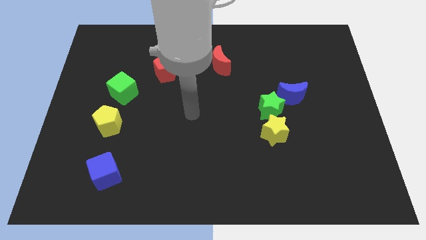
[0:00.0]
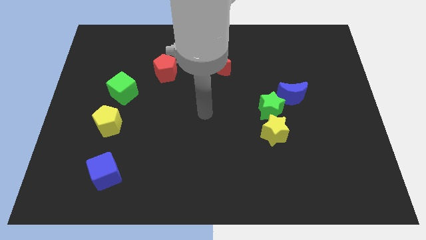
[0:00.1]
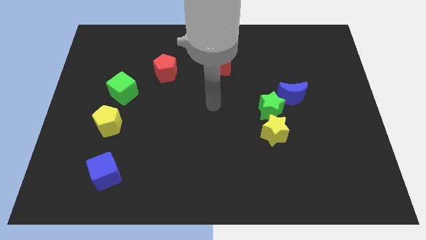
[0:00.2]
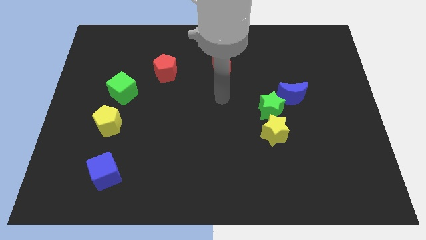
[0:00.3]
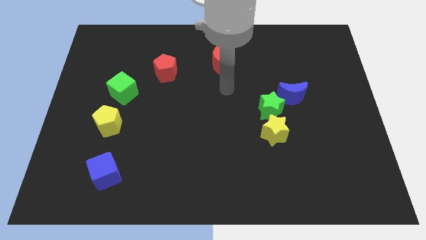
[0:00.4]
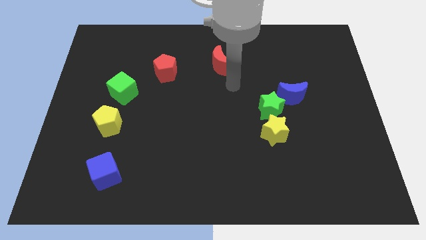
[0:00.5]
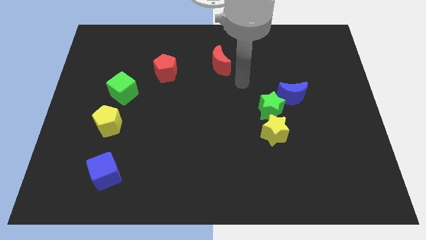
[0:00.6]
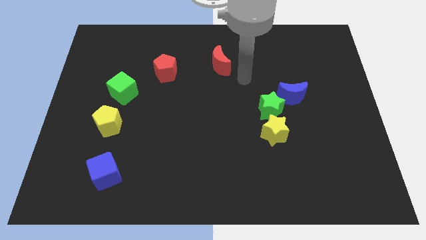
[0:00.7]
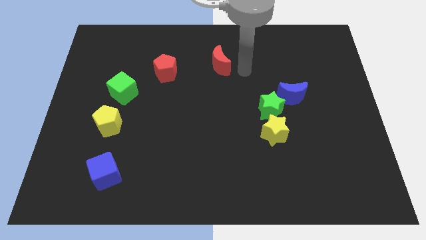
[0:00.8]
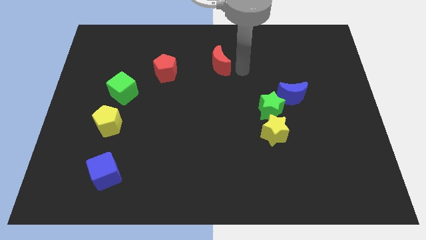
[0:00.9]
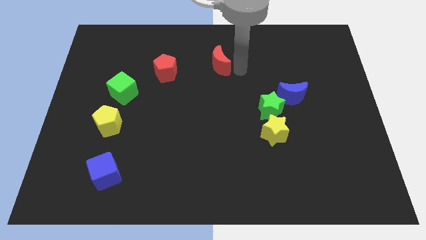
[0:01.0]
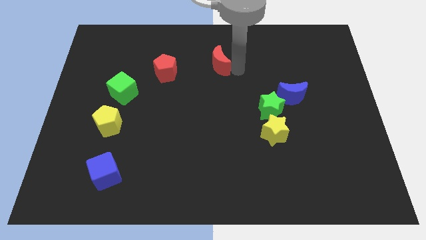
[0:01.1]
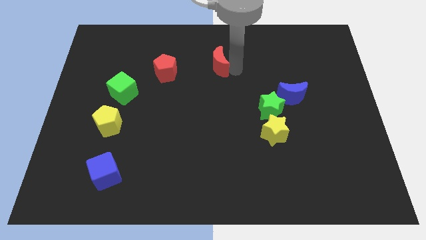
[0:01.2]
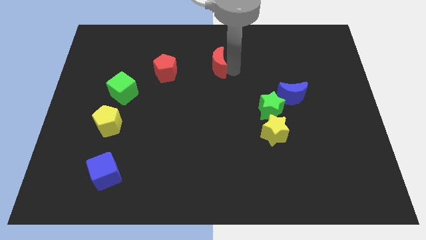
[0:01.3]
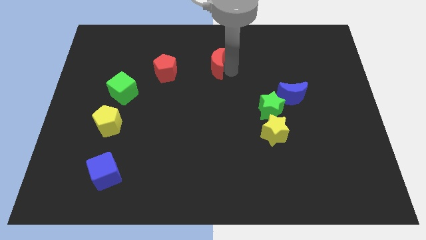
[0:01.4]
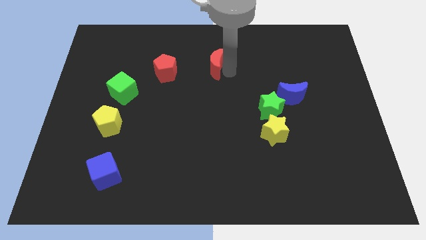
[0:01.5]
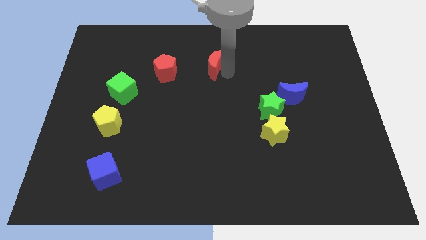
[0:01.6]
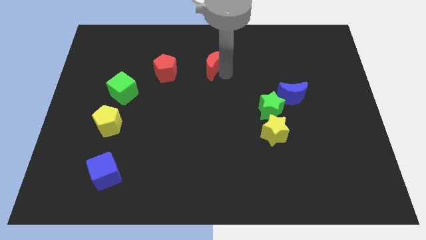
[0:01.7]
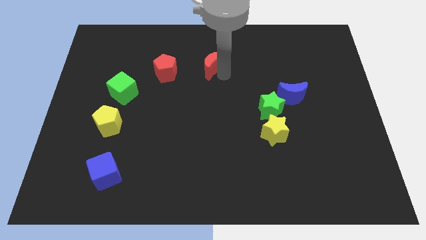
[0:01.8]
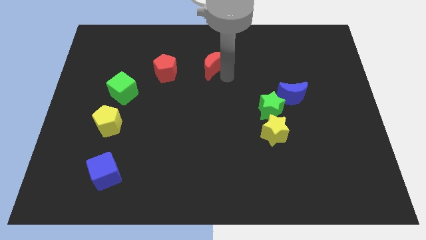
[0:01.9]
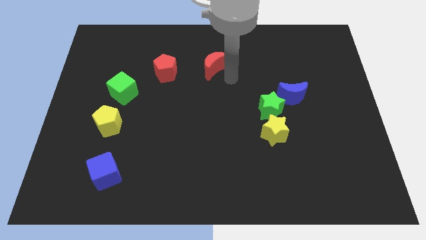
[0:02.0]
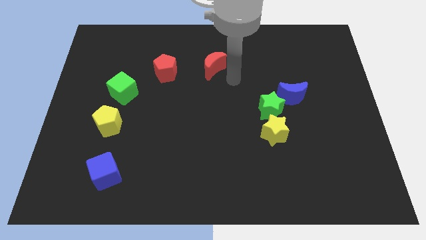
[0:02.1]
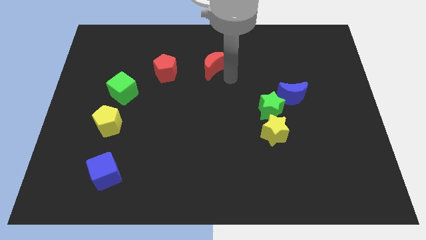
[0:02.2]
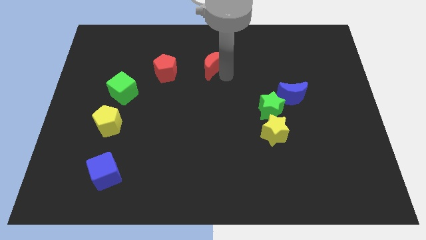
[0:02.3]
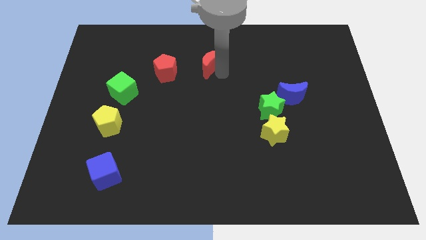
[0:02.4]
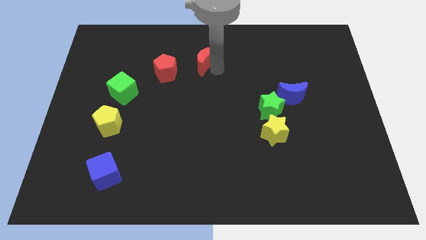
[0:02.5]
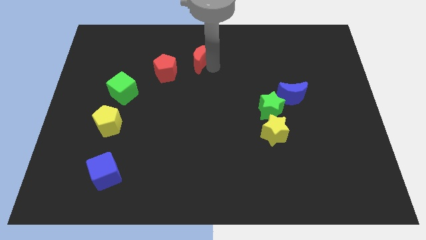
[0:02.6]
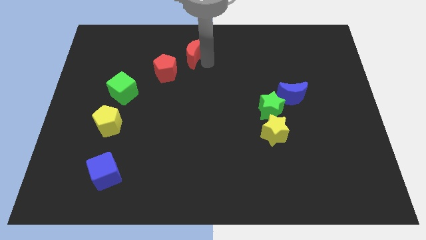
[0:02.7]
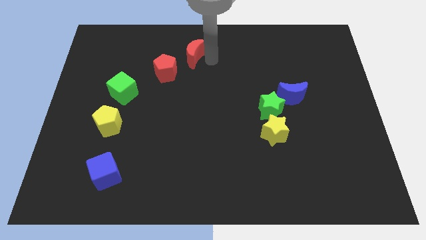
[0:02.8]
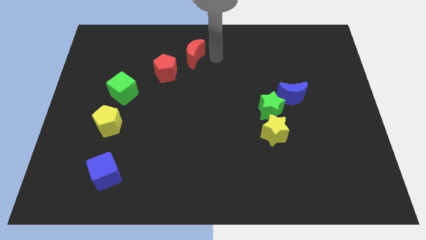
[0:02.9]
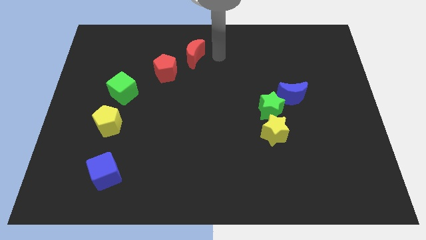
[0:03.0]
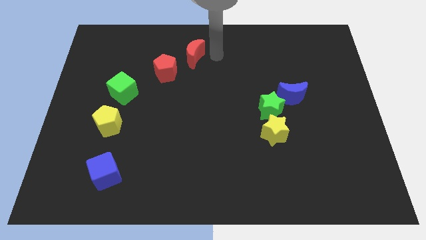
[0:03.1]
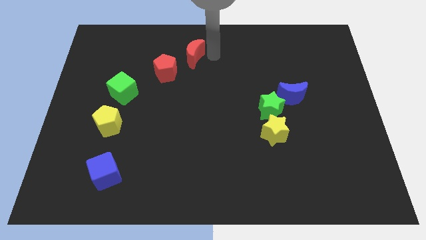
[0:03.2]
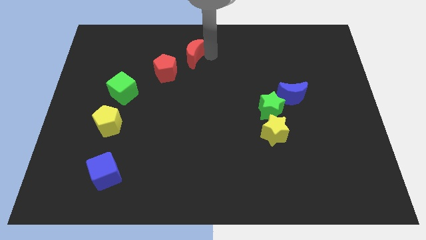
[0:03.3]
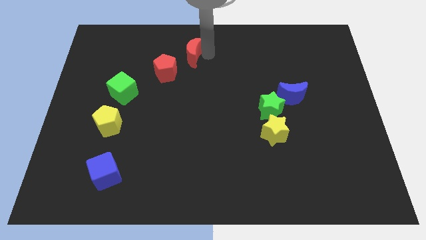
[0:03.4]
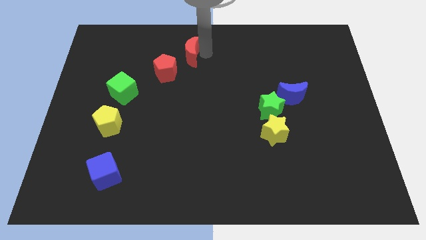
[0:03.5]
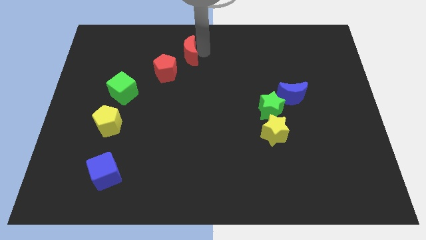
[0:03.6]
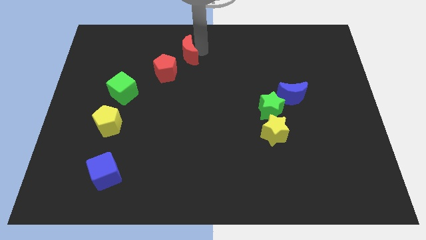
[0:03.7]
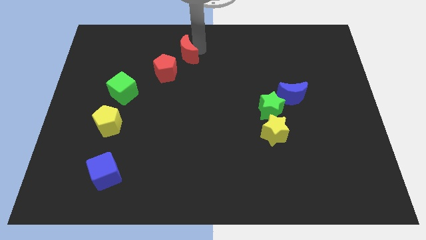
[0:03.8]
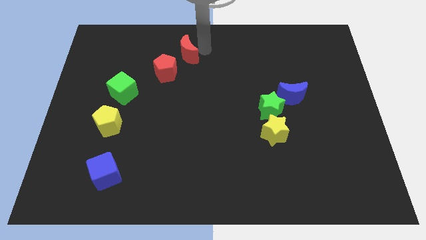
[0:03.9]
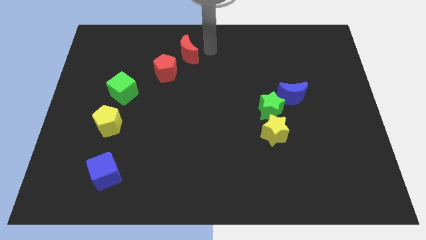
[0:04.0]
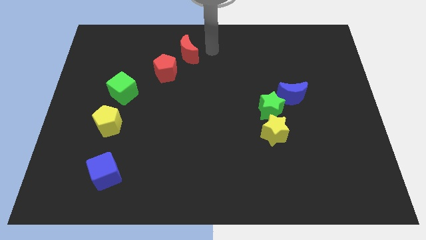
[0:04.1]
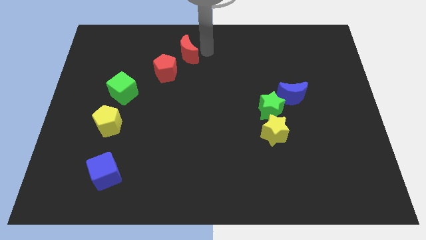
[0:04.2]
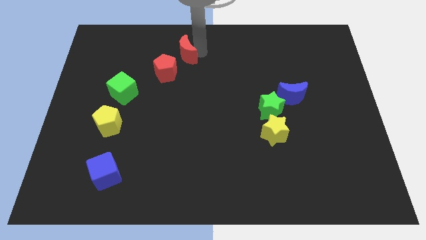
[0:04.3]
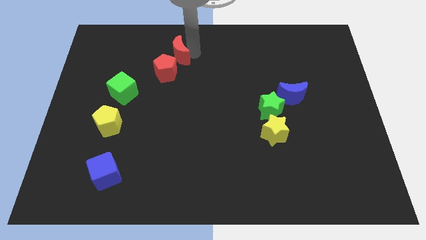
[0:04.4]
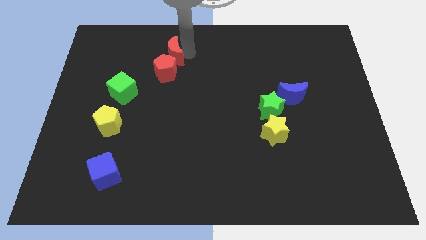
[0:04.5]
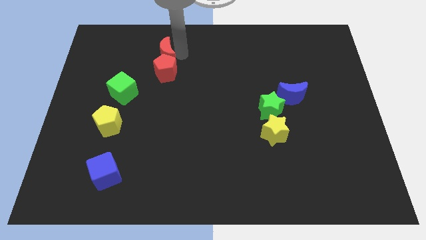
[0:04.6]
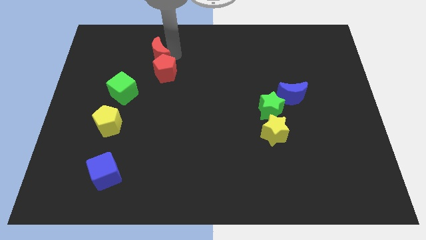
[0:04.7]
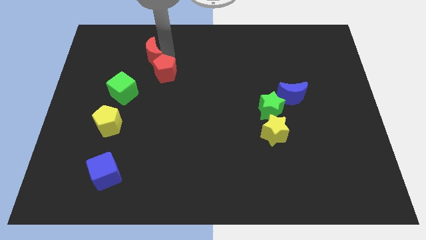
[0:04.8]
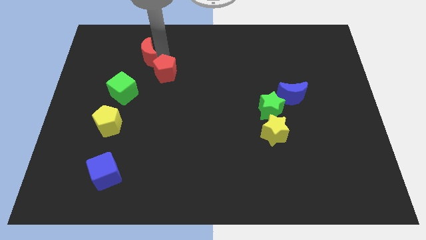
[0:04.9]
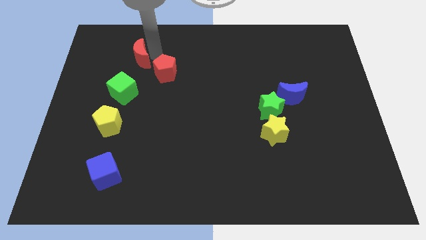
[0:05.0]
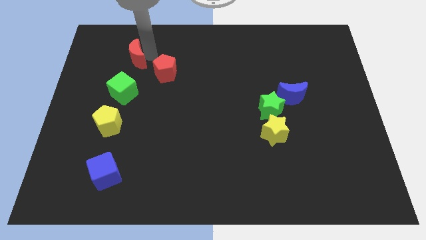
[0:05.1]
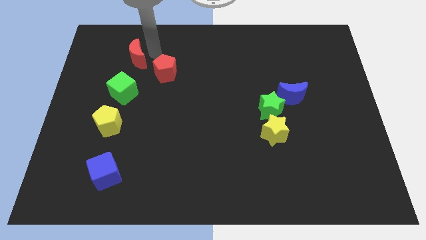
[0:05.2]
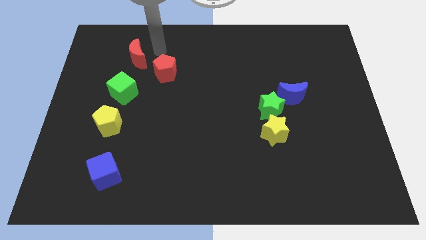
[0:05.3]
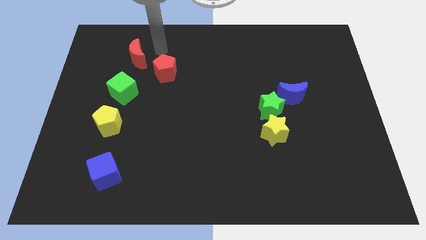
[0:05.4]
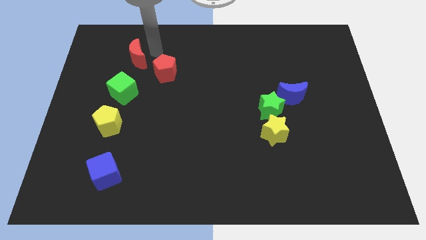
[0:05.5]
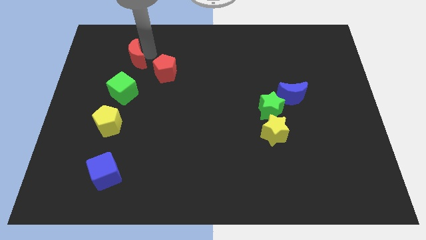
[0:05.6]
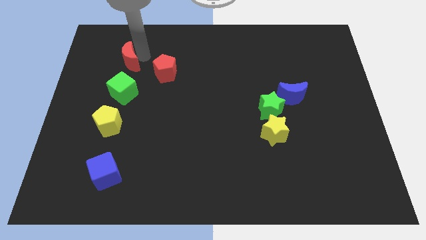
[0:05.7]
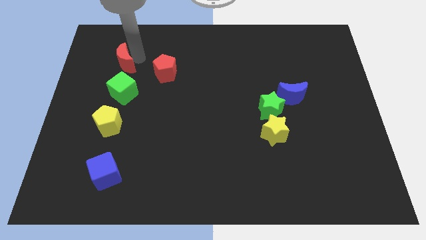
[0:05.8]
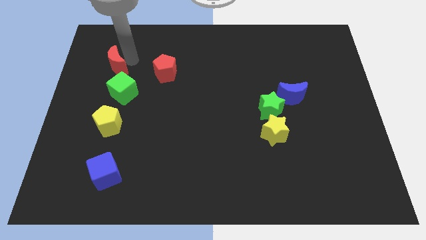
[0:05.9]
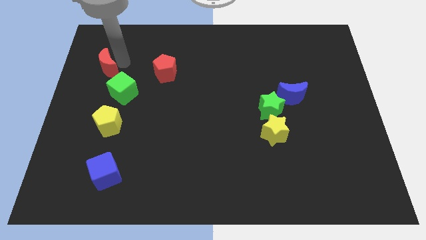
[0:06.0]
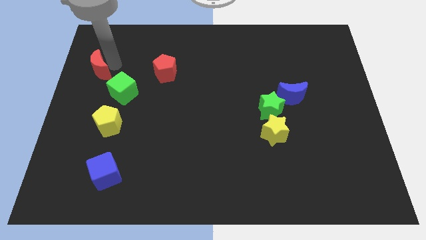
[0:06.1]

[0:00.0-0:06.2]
push the red moon to the left side of the board
